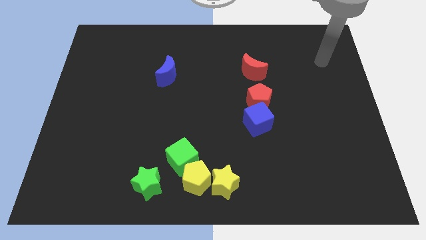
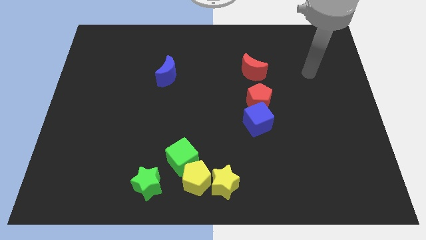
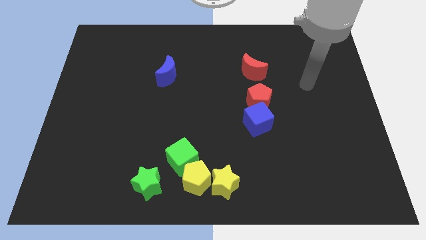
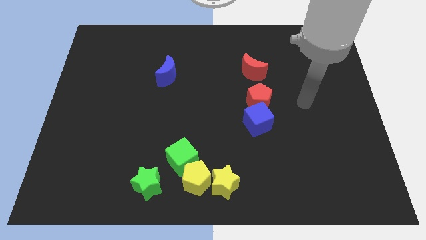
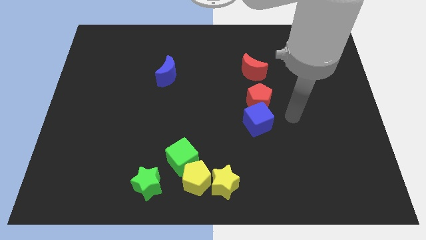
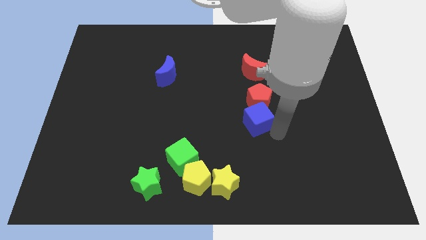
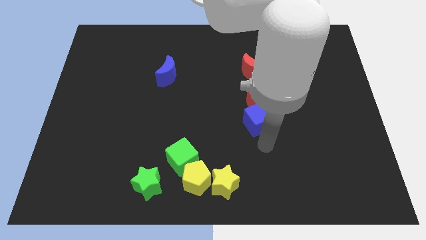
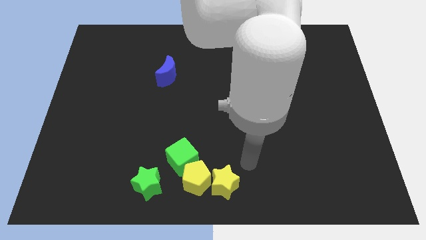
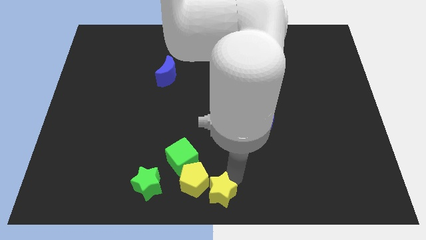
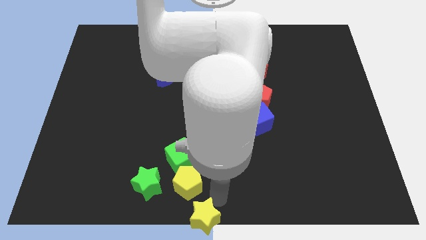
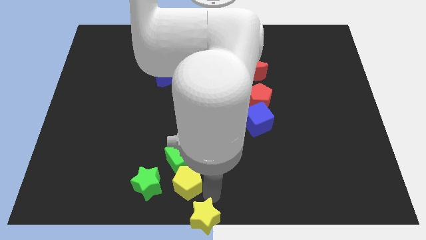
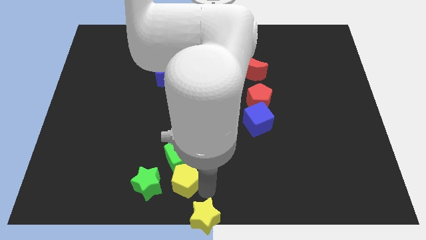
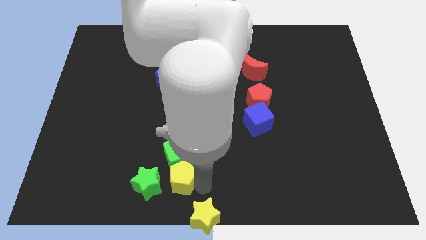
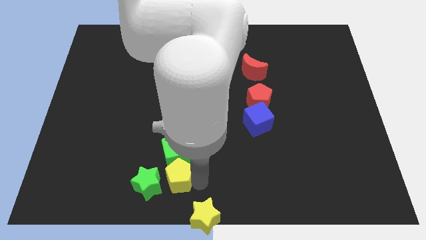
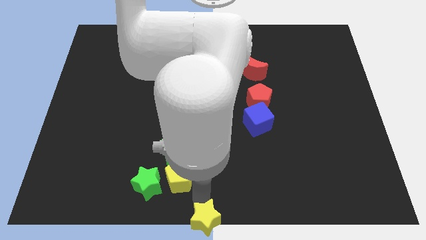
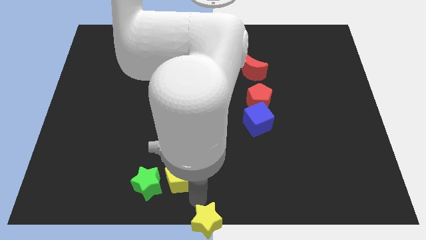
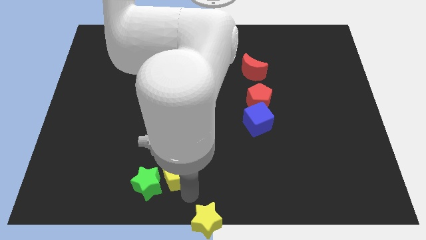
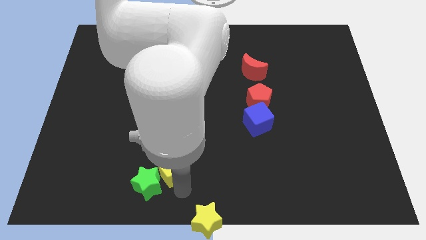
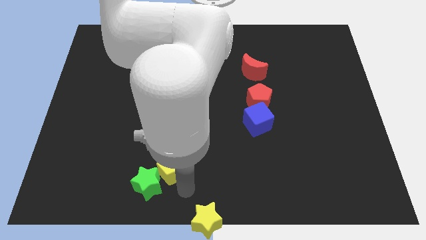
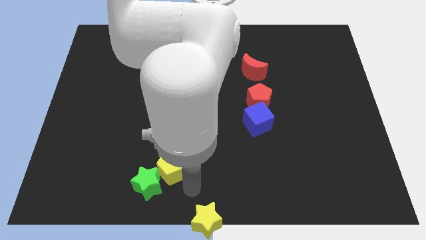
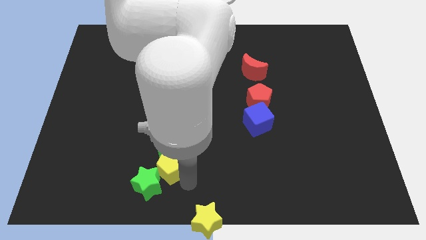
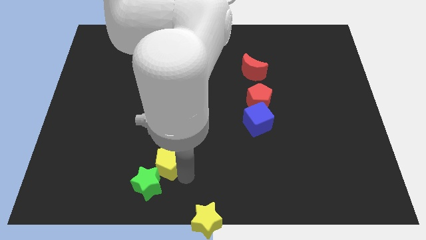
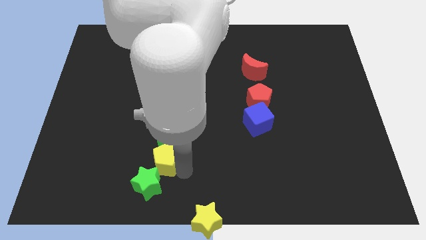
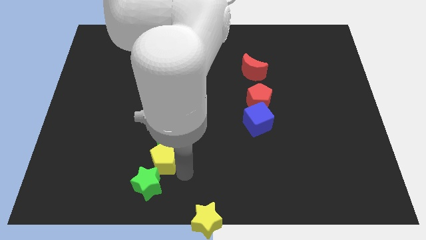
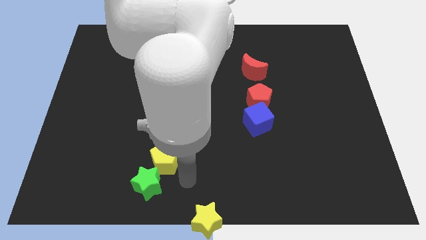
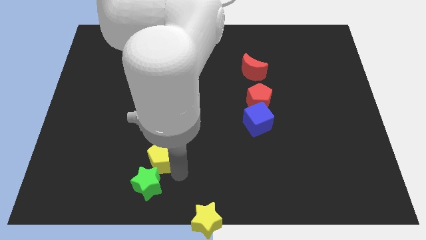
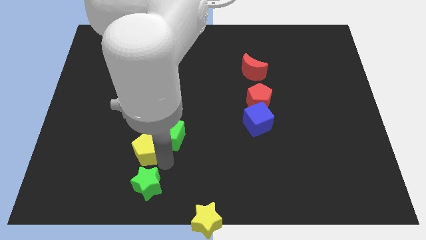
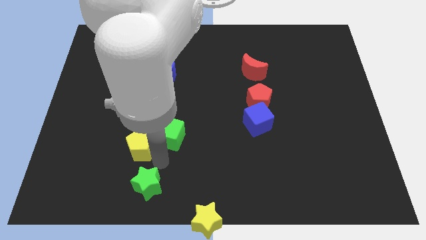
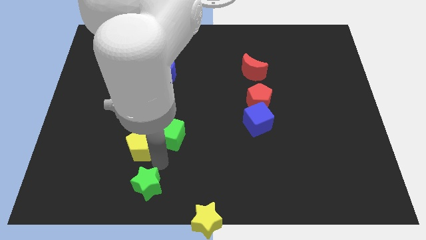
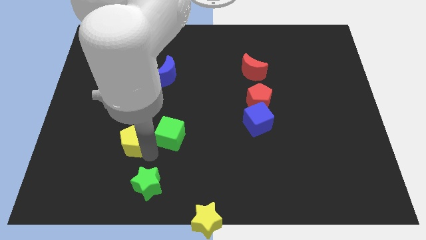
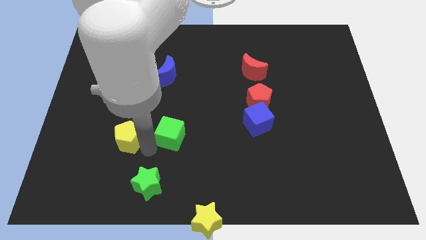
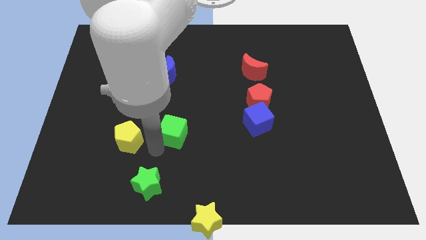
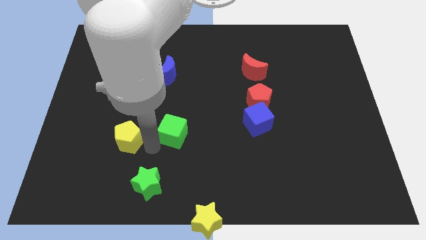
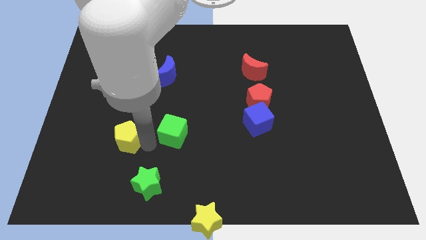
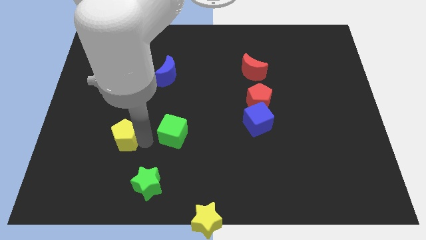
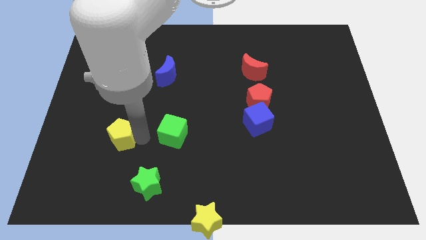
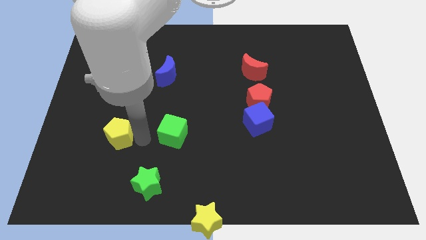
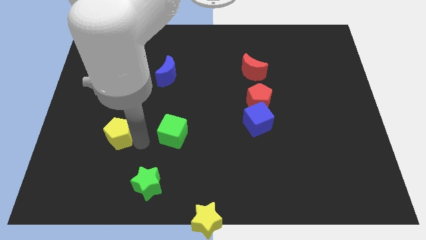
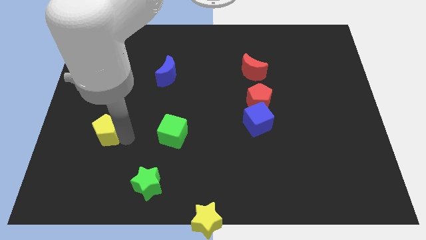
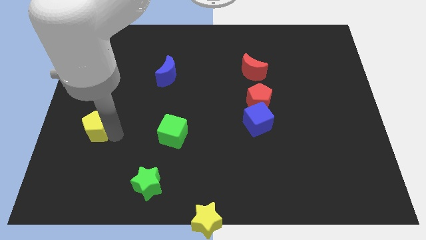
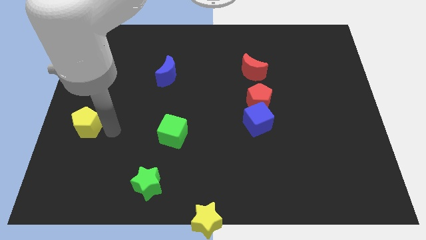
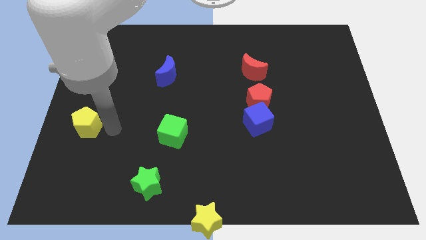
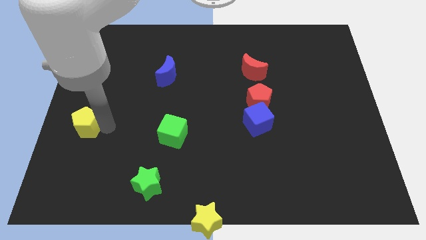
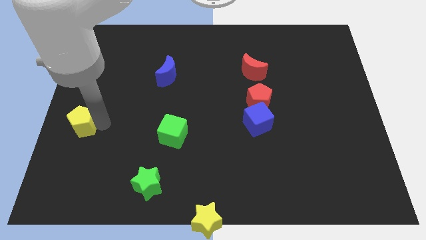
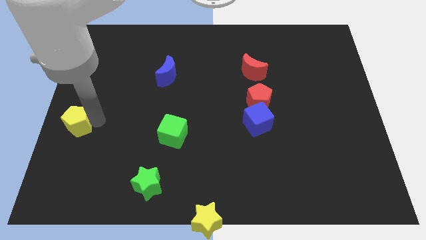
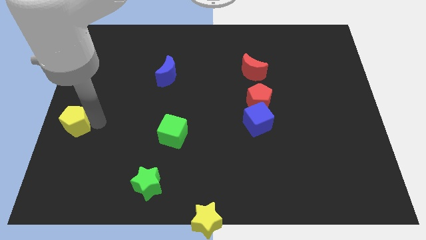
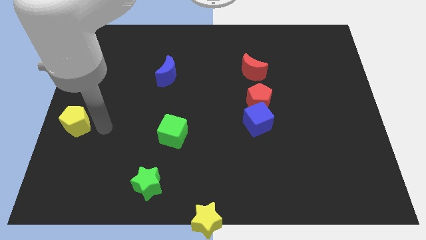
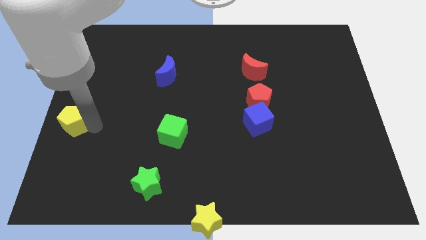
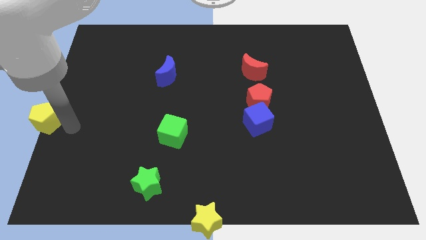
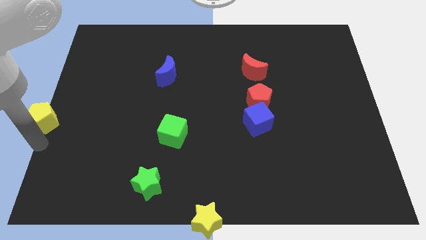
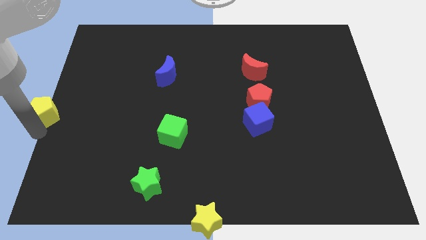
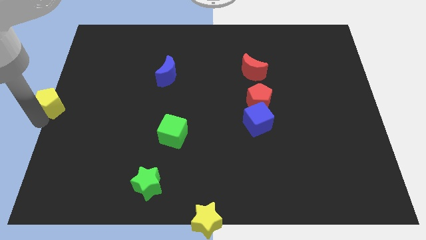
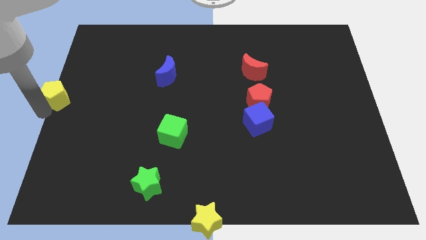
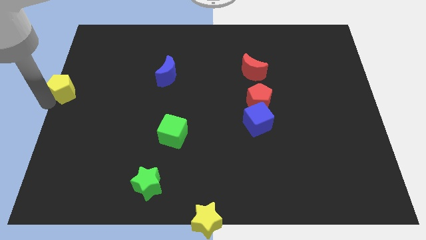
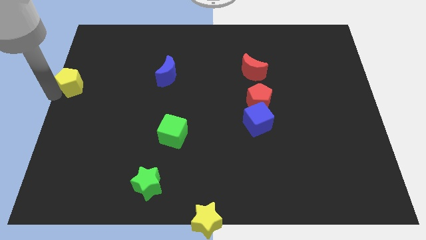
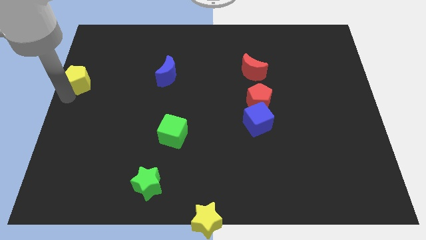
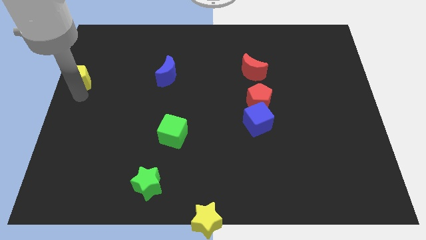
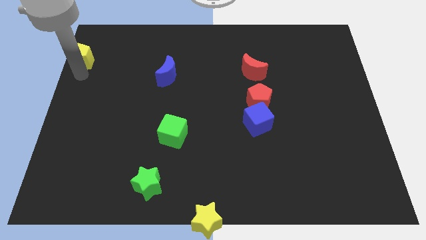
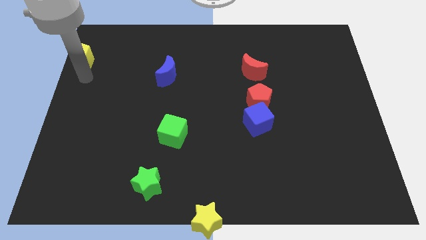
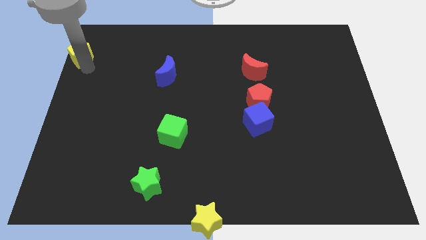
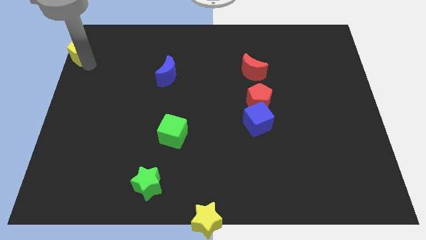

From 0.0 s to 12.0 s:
put the yellow pentagon to the top left corner

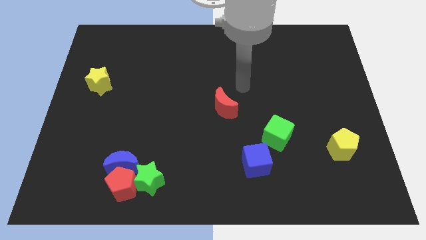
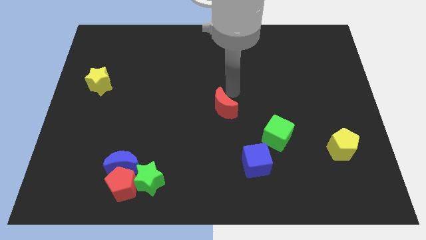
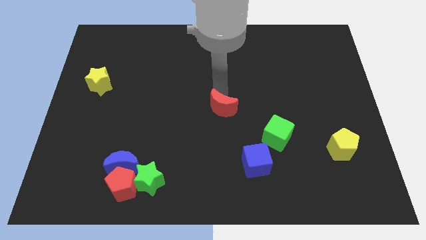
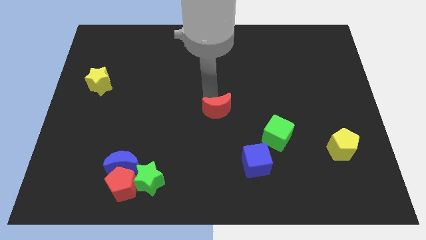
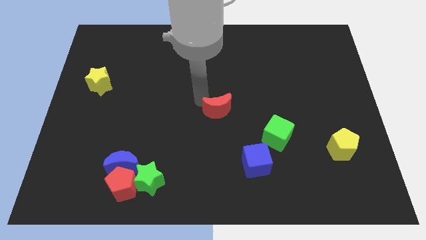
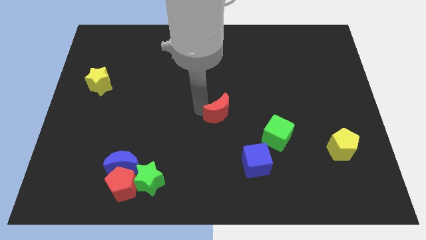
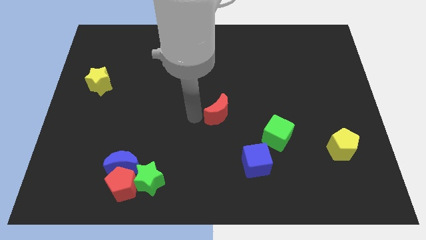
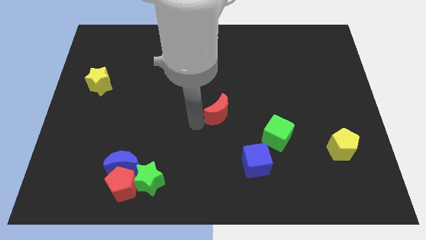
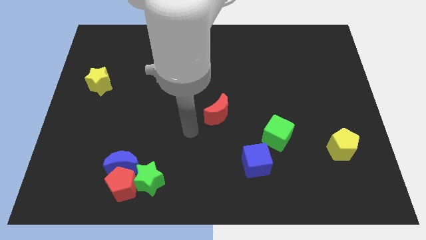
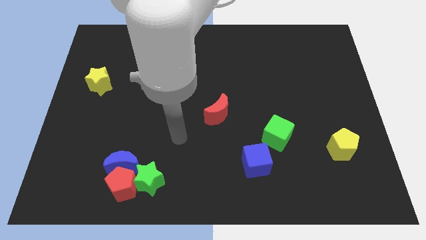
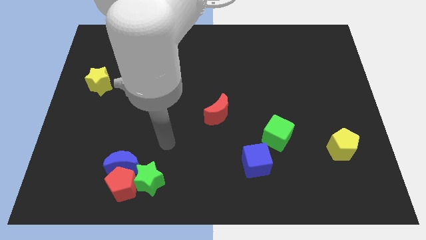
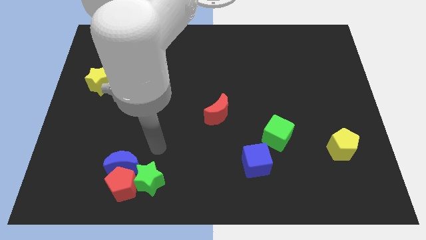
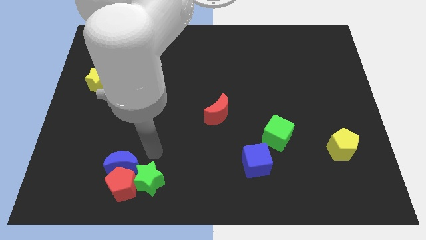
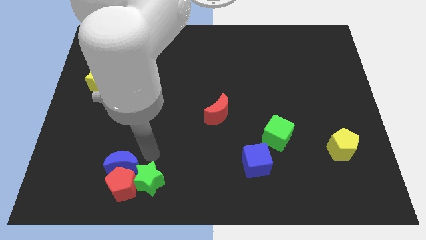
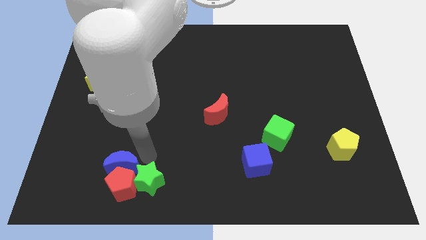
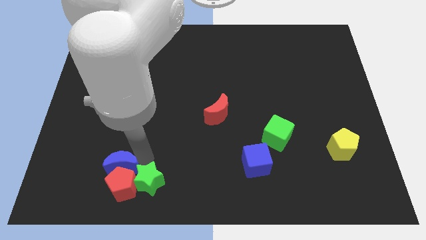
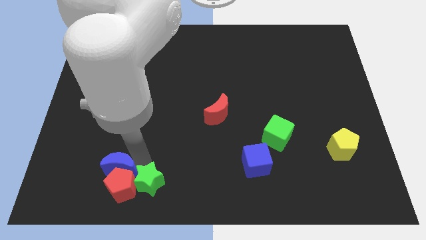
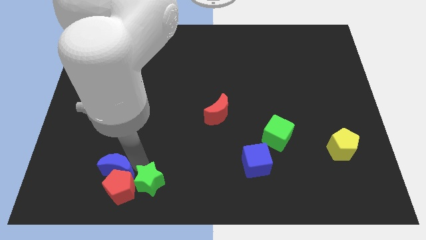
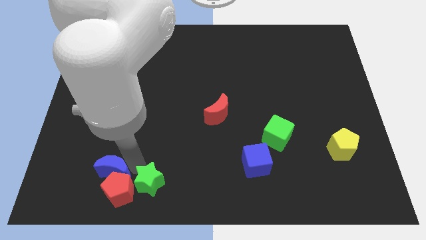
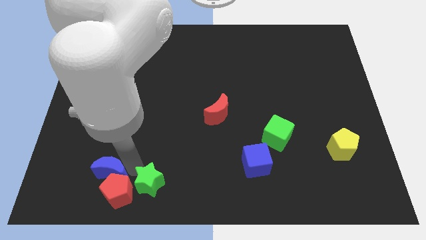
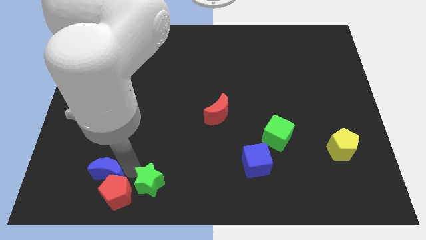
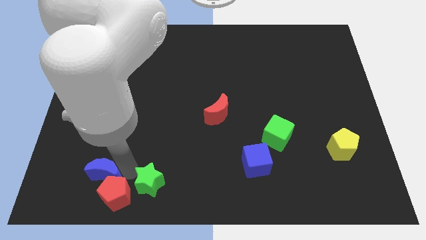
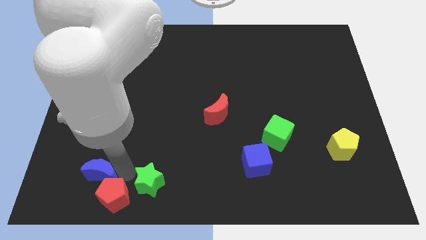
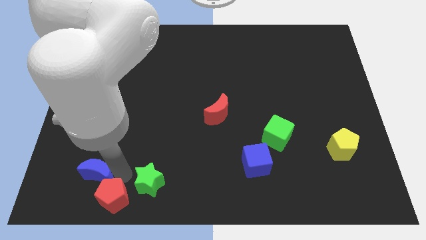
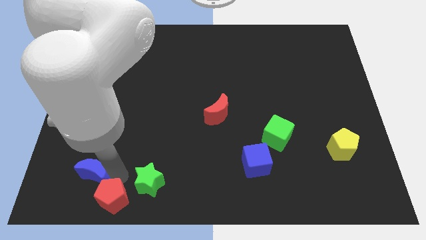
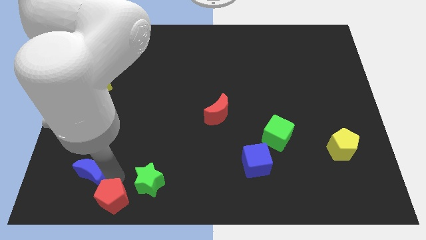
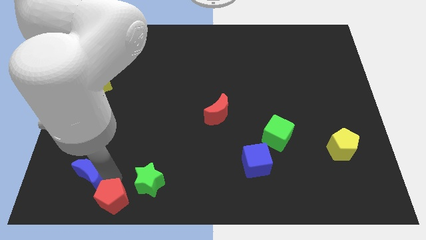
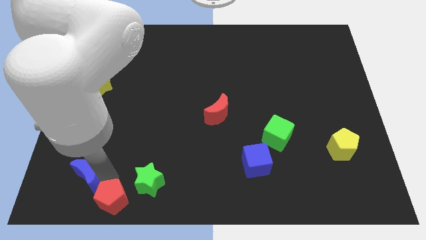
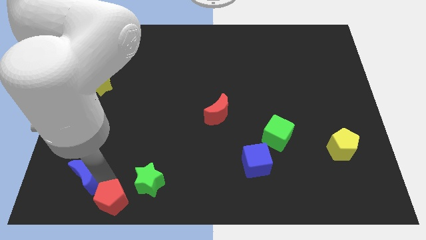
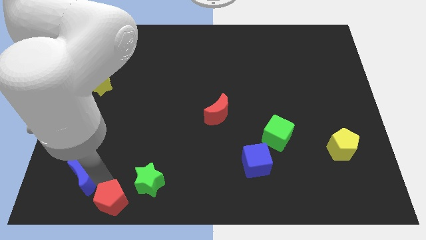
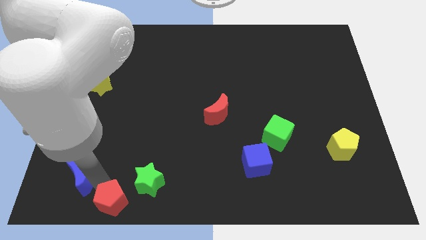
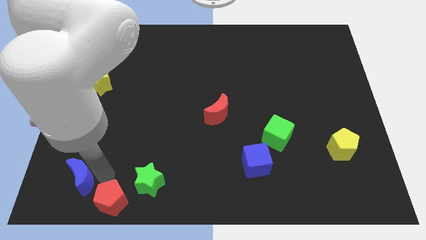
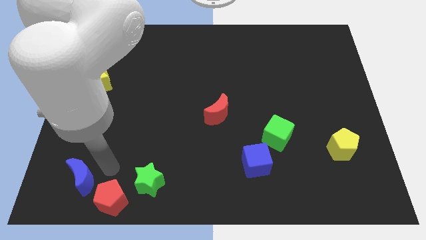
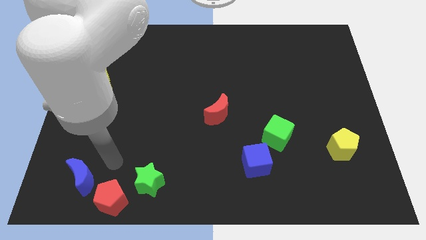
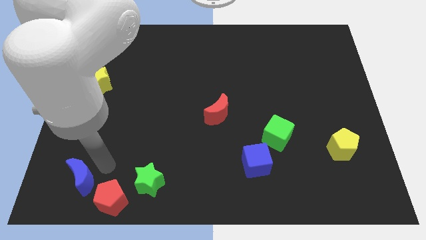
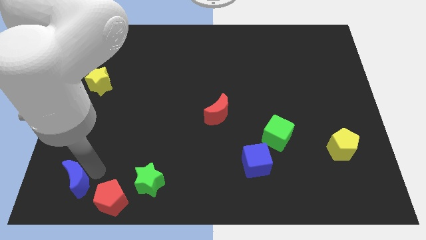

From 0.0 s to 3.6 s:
move the blue moon to the bottom left corner
